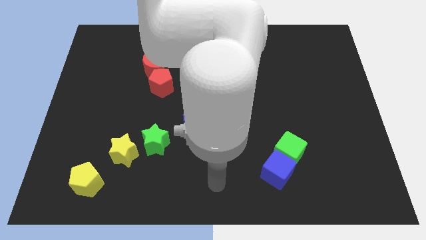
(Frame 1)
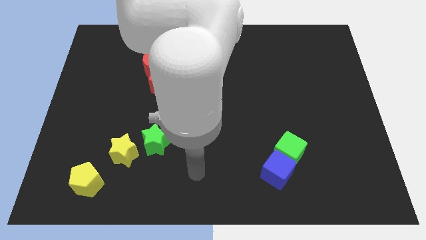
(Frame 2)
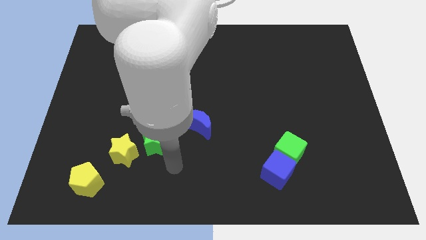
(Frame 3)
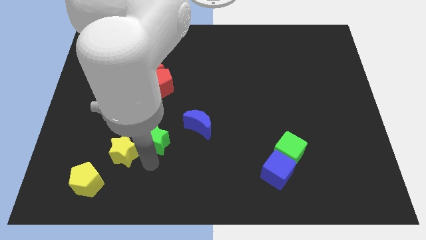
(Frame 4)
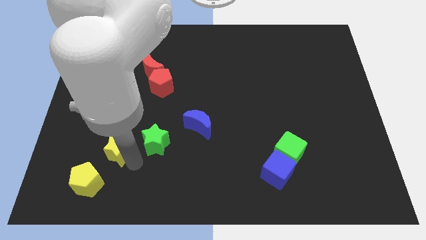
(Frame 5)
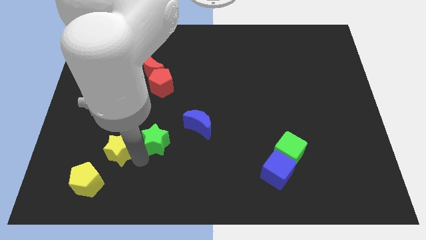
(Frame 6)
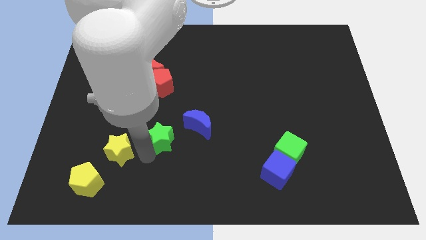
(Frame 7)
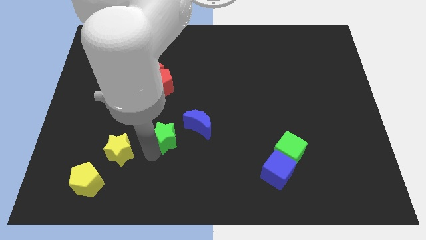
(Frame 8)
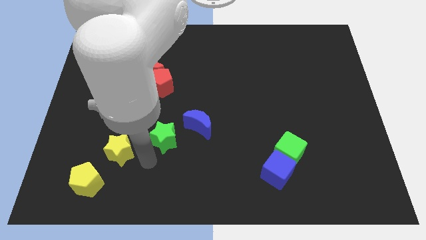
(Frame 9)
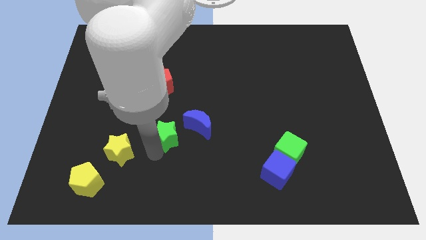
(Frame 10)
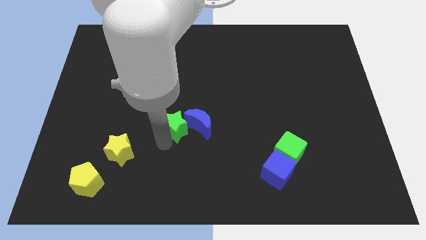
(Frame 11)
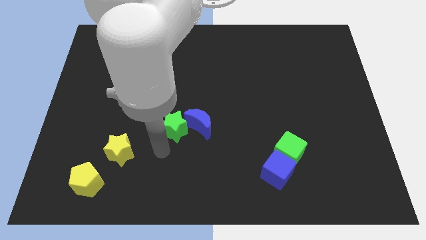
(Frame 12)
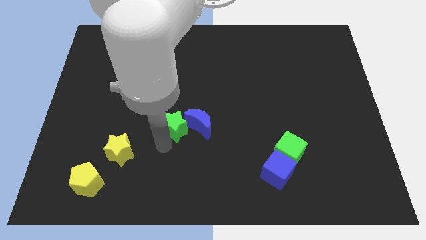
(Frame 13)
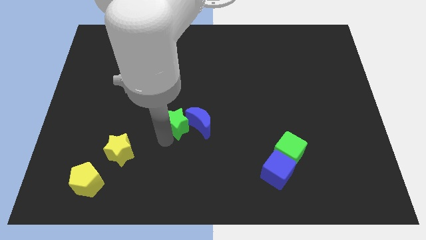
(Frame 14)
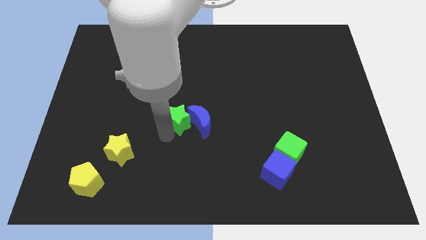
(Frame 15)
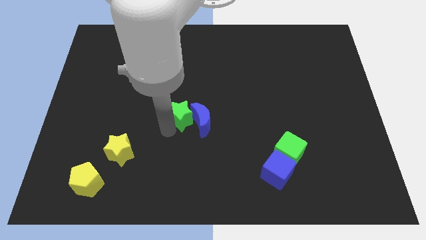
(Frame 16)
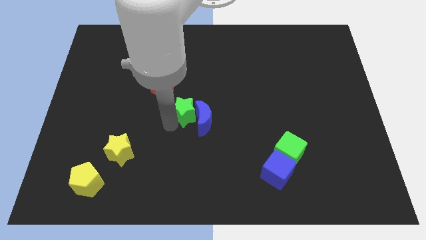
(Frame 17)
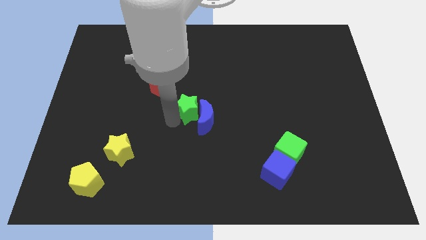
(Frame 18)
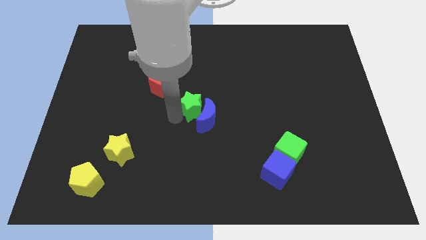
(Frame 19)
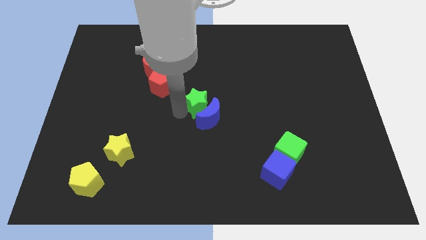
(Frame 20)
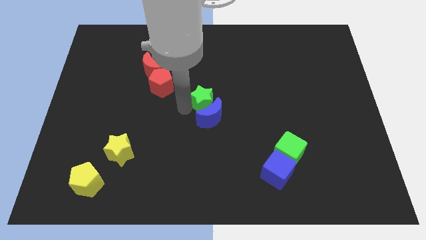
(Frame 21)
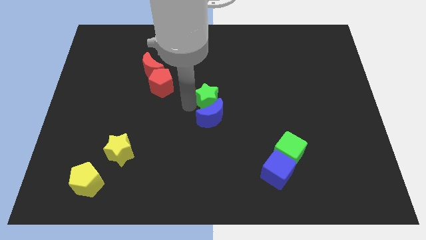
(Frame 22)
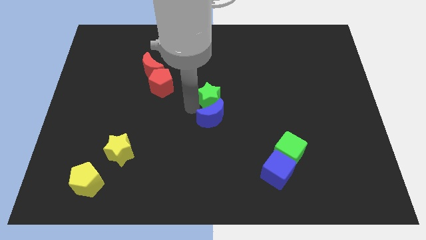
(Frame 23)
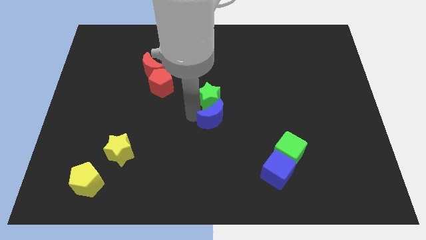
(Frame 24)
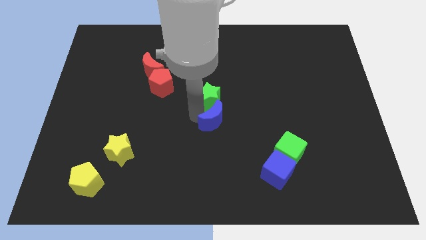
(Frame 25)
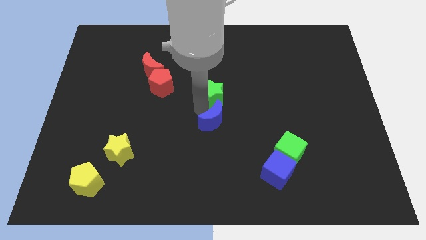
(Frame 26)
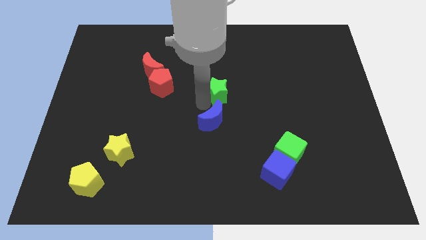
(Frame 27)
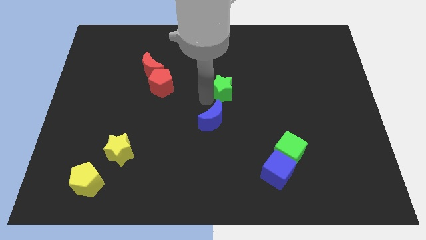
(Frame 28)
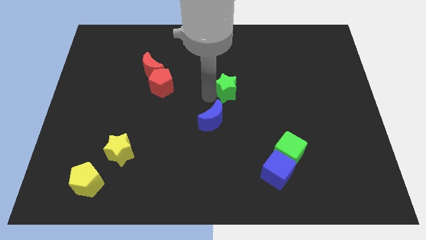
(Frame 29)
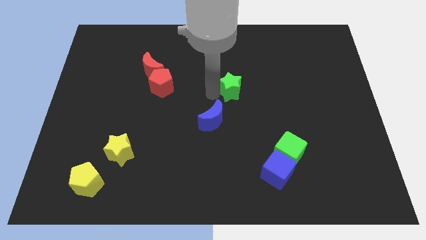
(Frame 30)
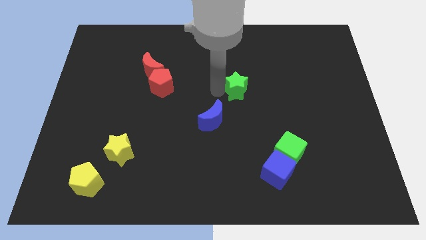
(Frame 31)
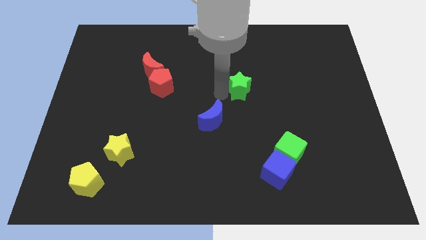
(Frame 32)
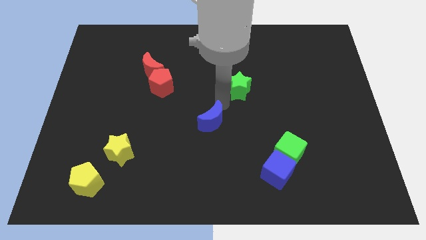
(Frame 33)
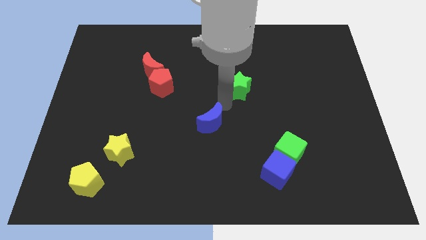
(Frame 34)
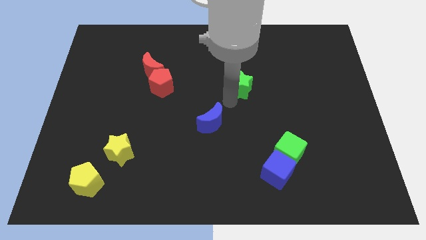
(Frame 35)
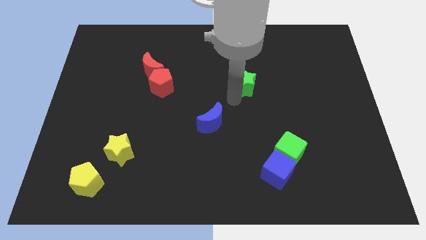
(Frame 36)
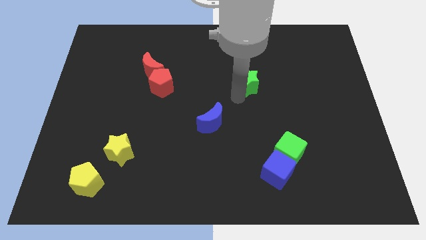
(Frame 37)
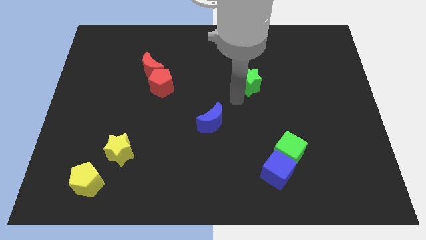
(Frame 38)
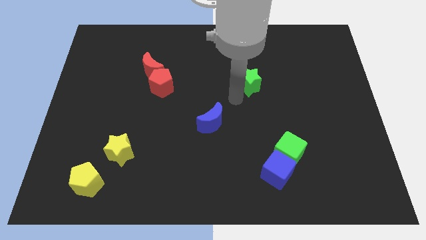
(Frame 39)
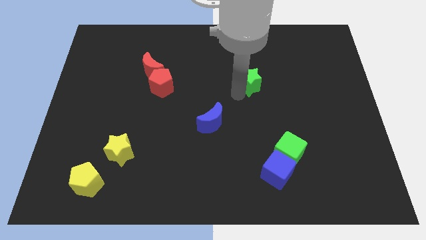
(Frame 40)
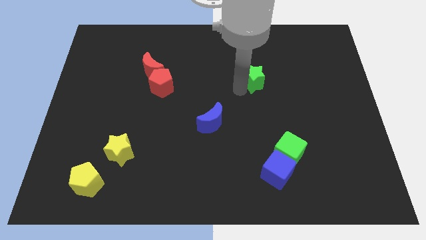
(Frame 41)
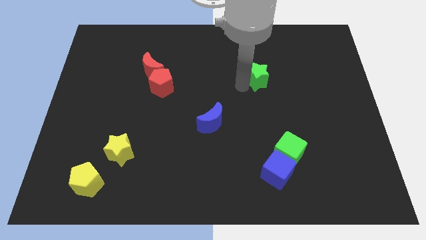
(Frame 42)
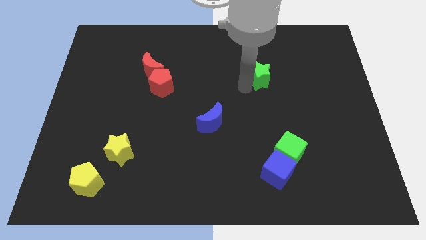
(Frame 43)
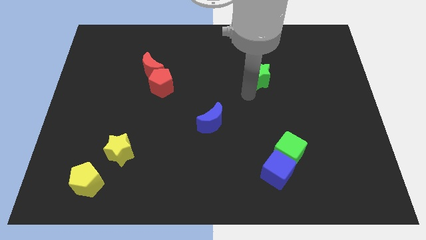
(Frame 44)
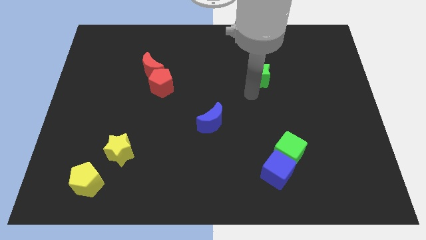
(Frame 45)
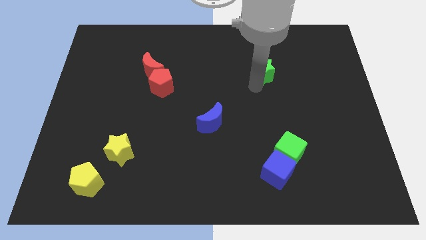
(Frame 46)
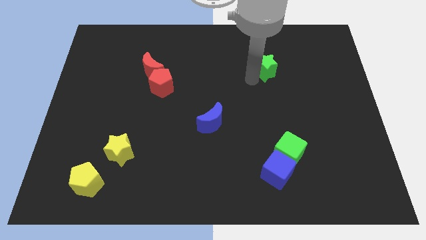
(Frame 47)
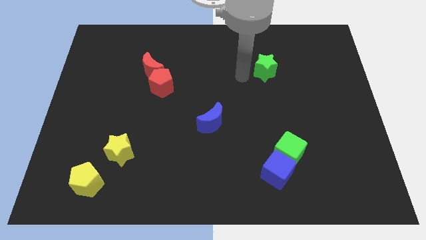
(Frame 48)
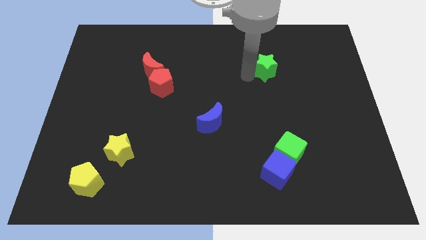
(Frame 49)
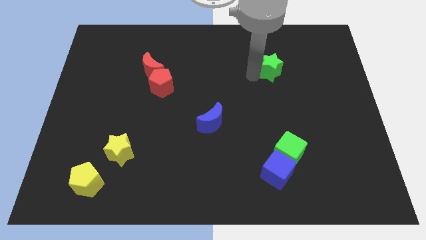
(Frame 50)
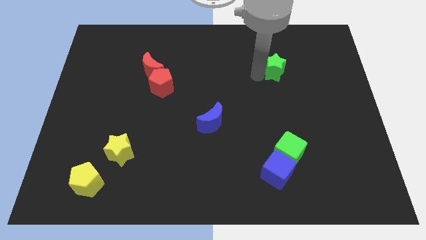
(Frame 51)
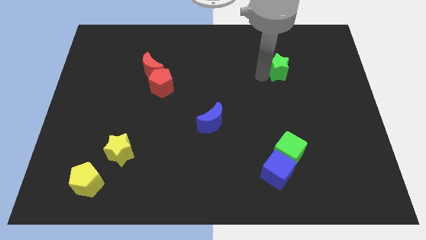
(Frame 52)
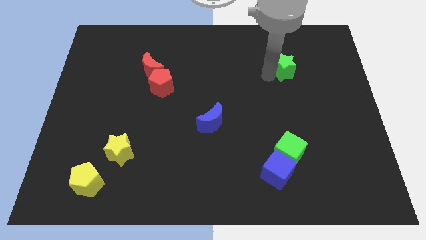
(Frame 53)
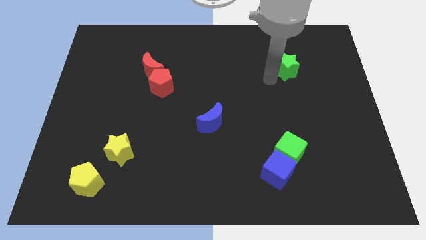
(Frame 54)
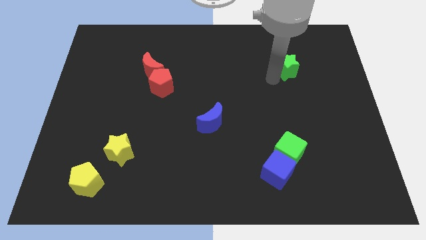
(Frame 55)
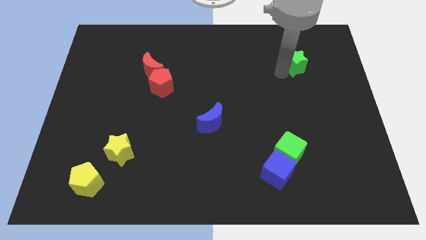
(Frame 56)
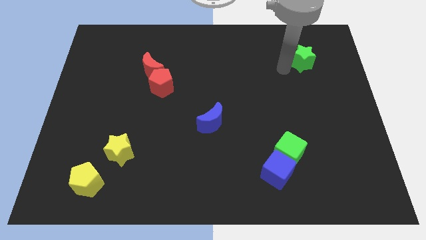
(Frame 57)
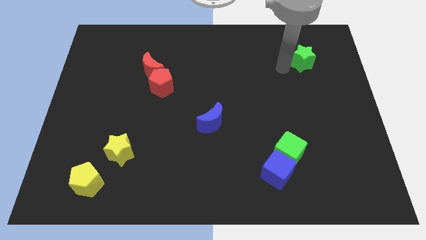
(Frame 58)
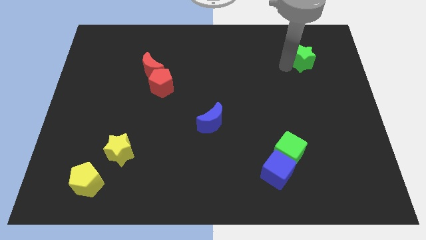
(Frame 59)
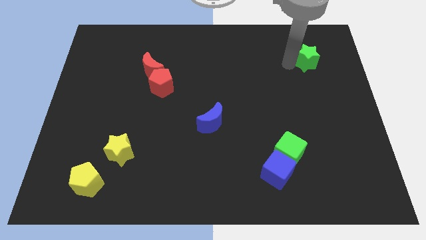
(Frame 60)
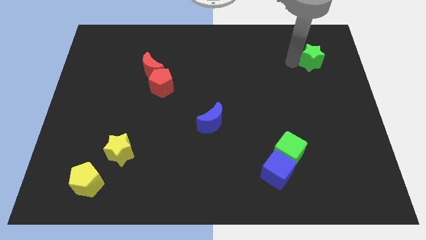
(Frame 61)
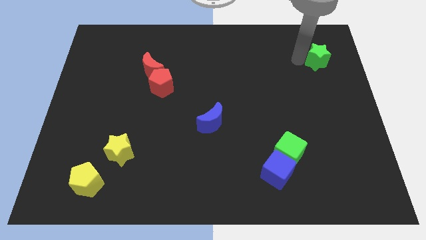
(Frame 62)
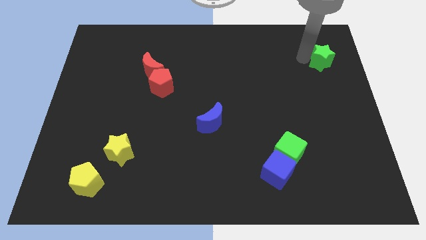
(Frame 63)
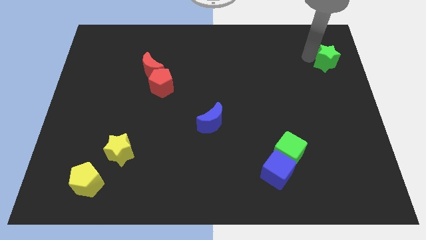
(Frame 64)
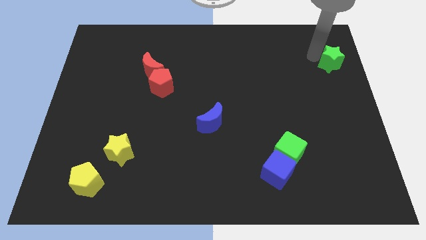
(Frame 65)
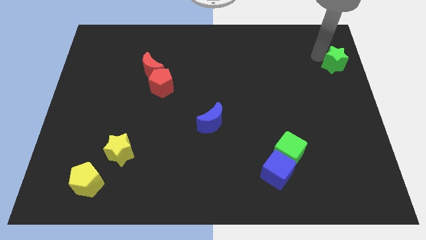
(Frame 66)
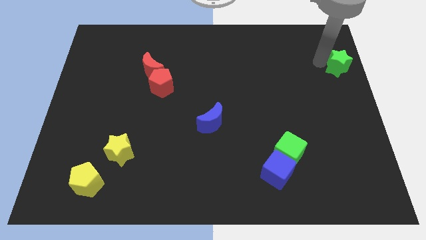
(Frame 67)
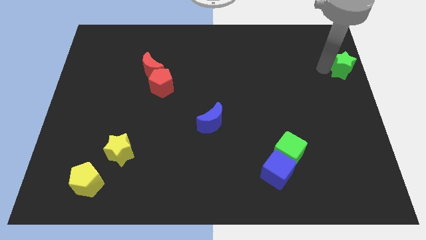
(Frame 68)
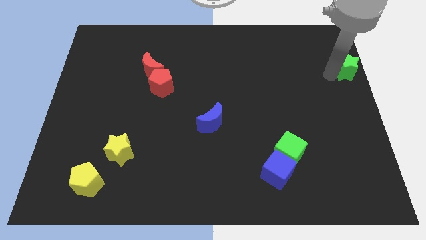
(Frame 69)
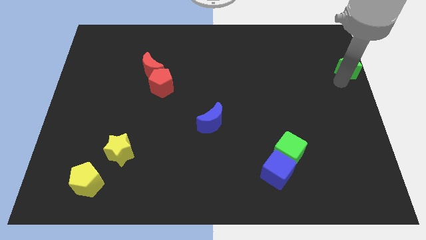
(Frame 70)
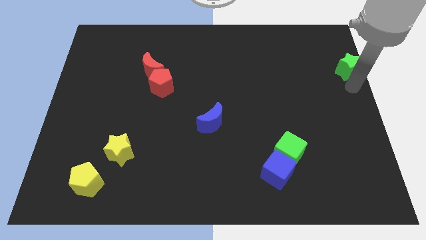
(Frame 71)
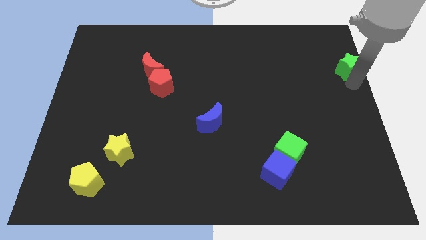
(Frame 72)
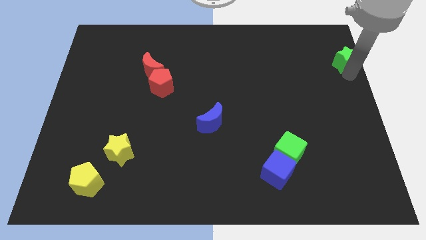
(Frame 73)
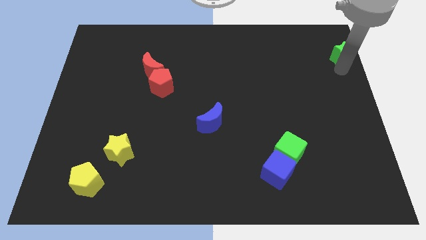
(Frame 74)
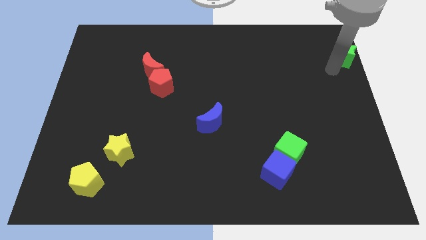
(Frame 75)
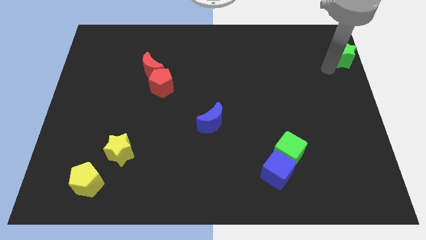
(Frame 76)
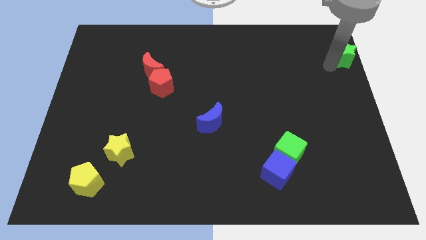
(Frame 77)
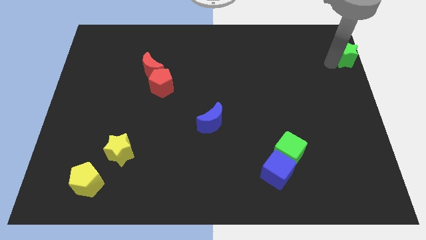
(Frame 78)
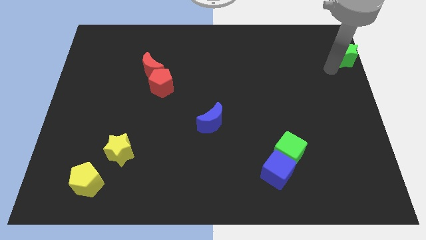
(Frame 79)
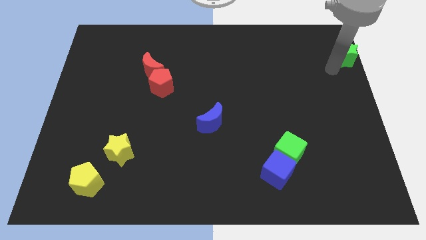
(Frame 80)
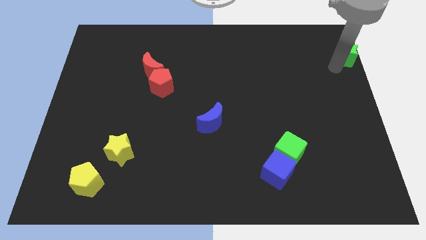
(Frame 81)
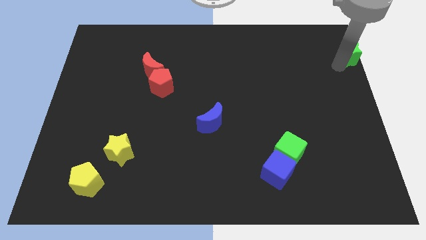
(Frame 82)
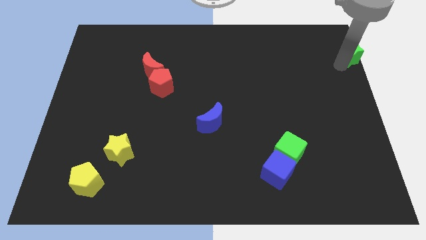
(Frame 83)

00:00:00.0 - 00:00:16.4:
move the green star to the top right
